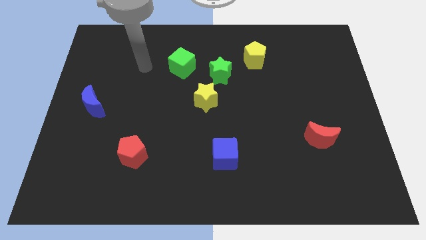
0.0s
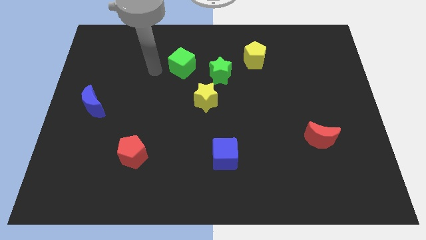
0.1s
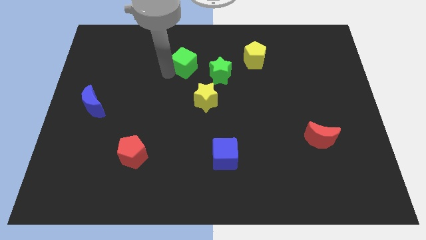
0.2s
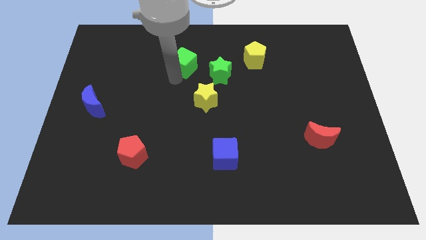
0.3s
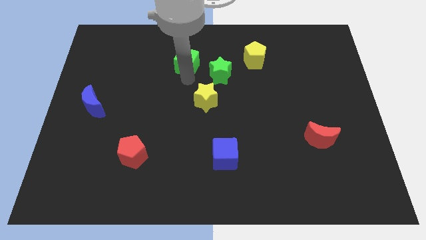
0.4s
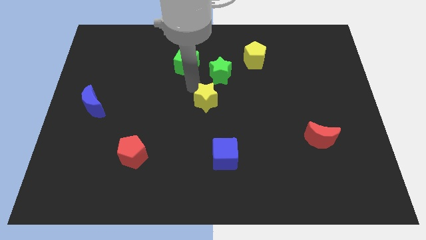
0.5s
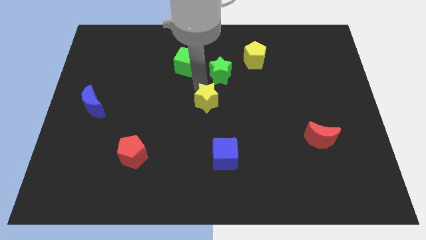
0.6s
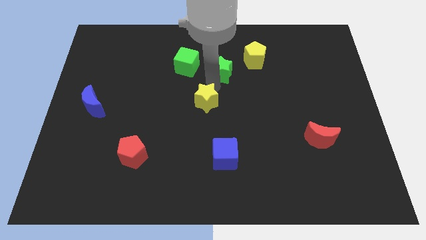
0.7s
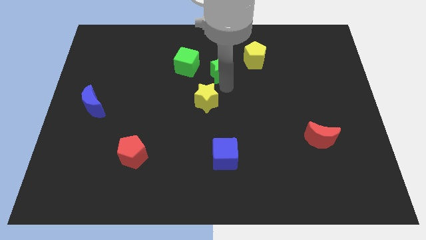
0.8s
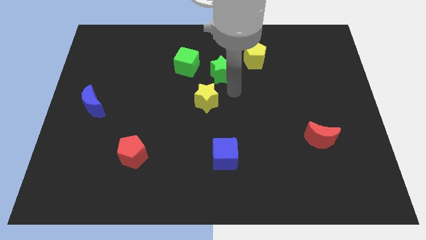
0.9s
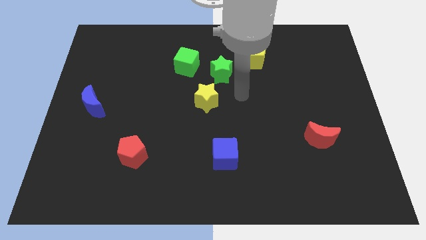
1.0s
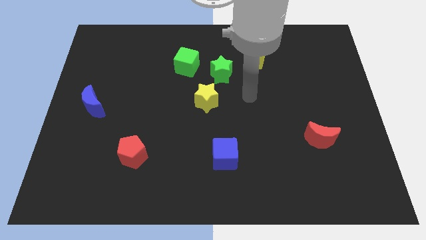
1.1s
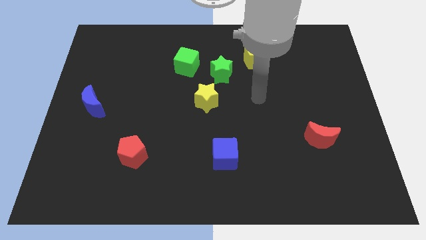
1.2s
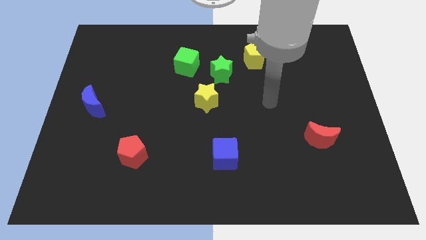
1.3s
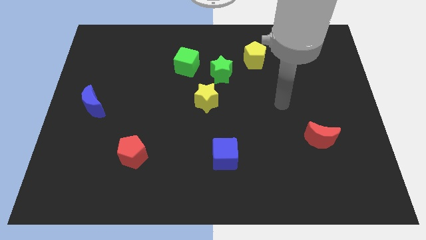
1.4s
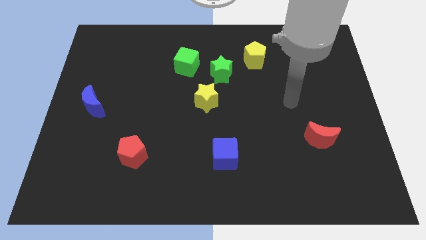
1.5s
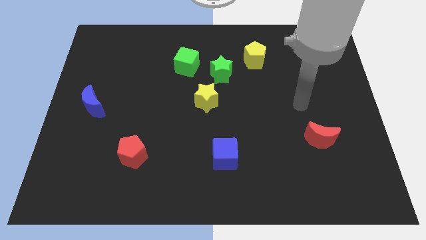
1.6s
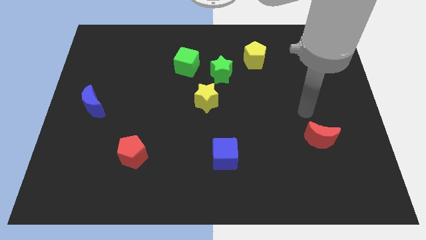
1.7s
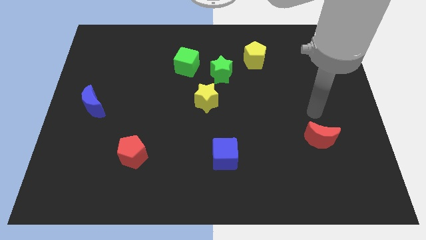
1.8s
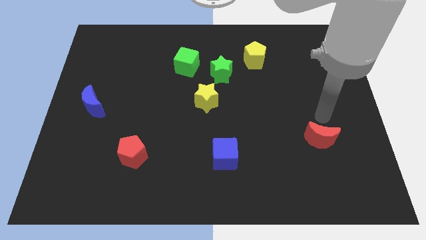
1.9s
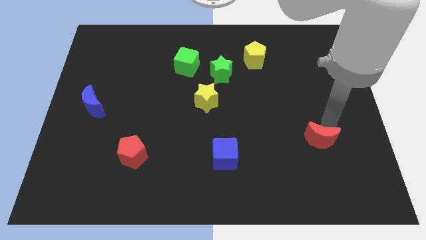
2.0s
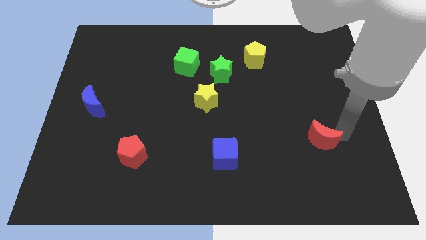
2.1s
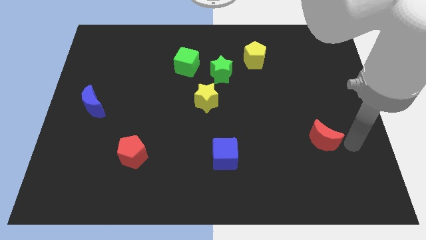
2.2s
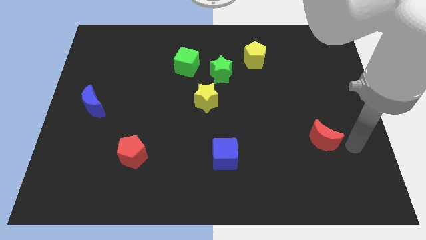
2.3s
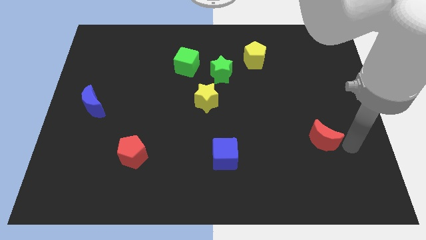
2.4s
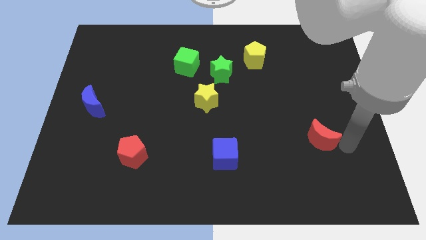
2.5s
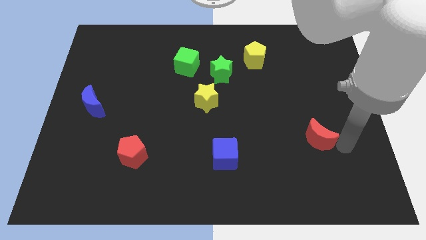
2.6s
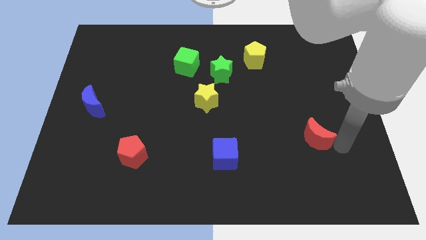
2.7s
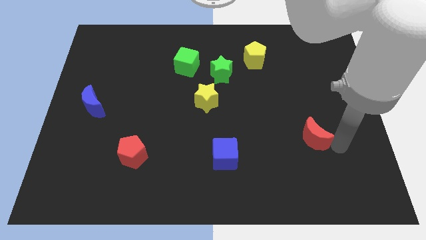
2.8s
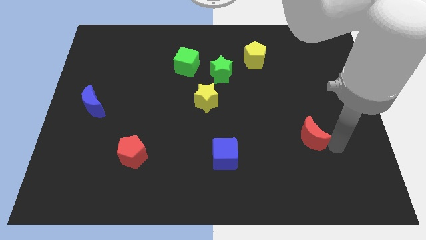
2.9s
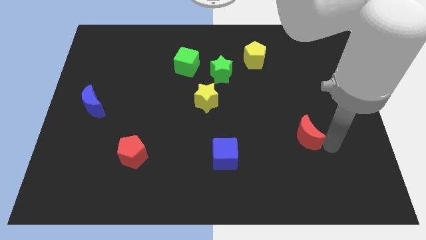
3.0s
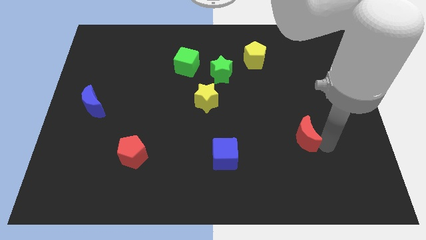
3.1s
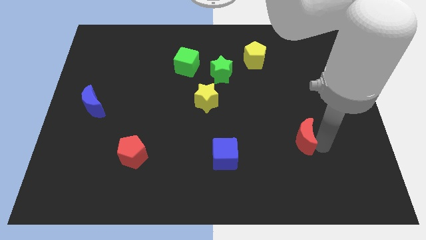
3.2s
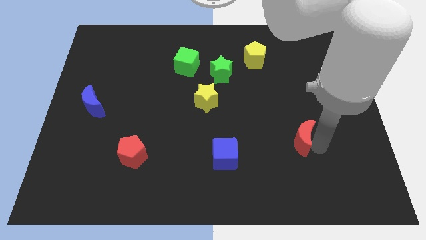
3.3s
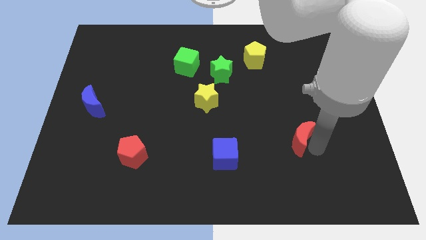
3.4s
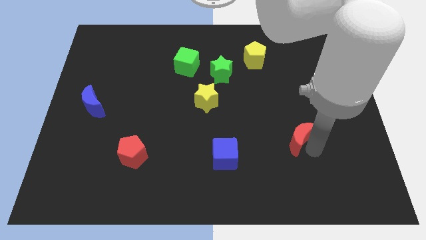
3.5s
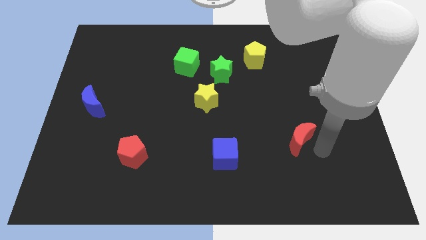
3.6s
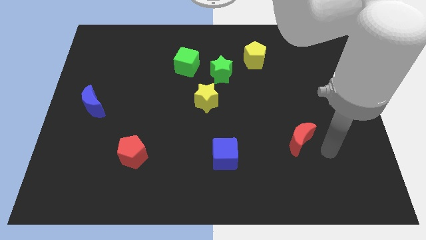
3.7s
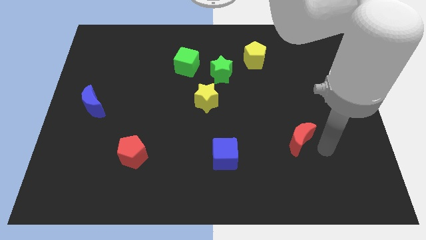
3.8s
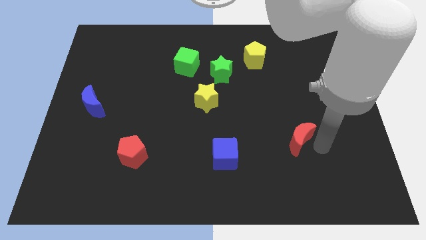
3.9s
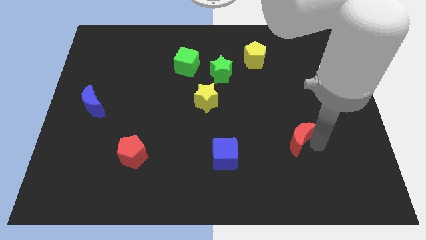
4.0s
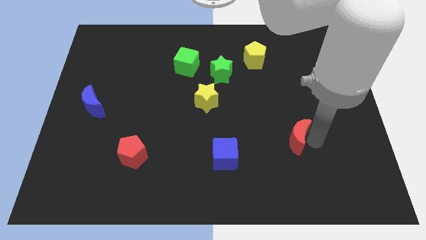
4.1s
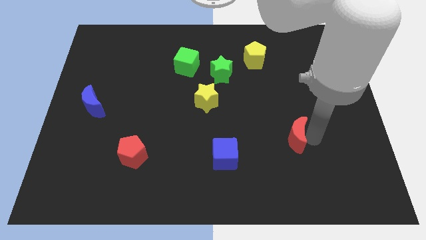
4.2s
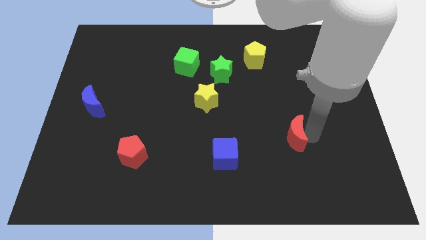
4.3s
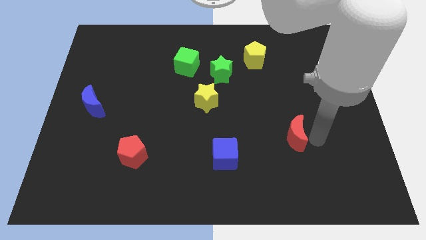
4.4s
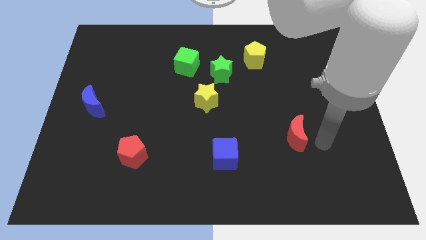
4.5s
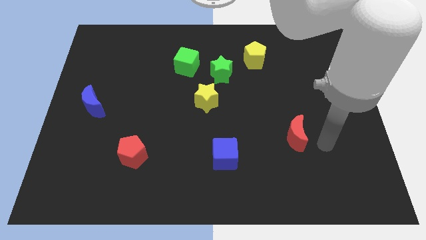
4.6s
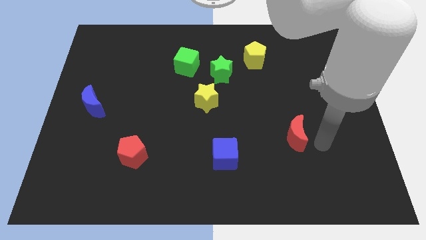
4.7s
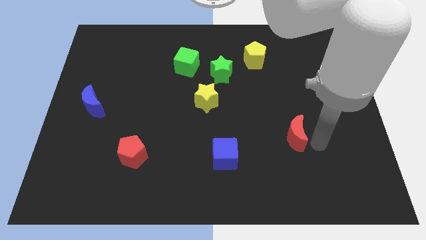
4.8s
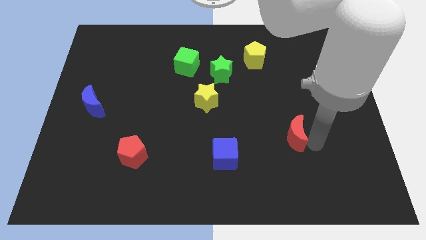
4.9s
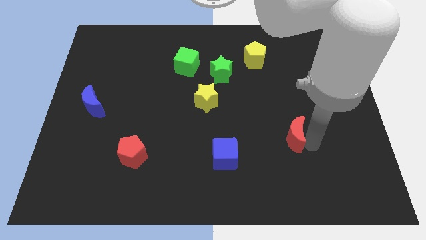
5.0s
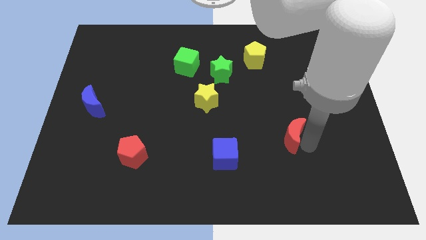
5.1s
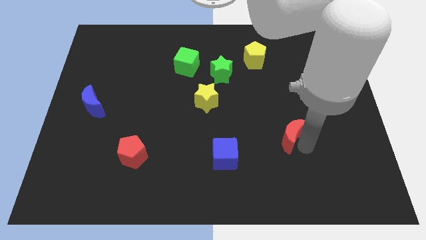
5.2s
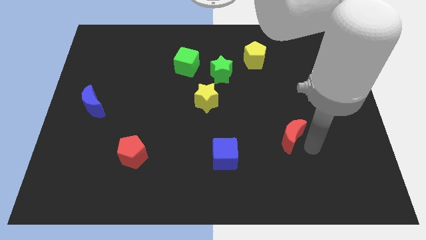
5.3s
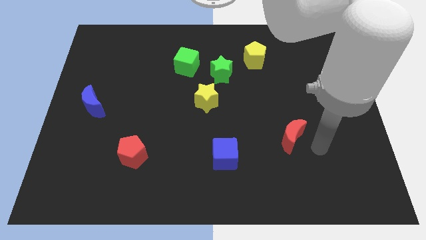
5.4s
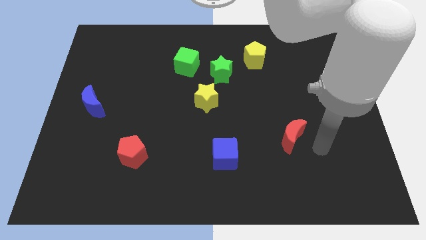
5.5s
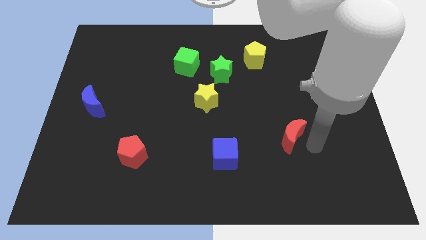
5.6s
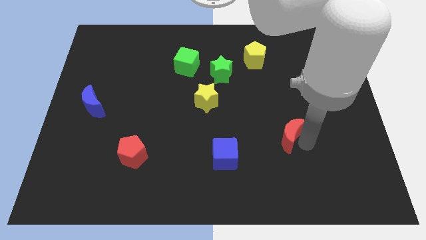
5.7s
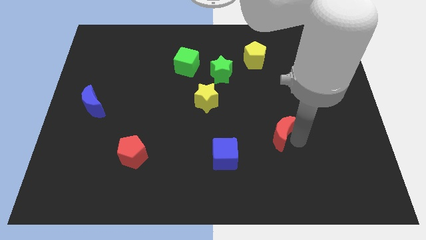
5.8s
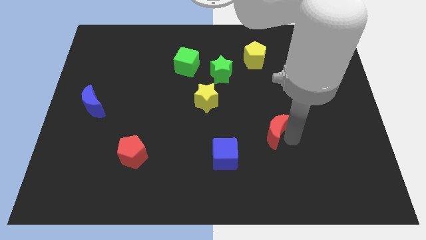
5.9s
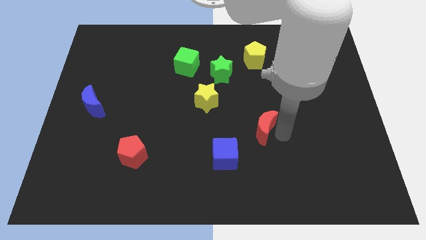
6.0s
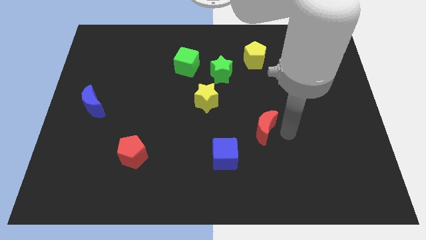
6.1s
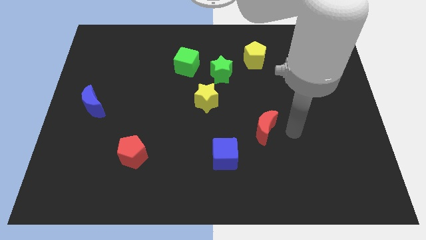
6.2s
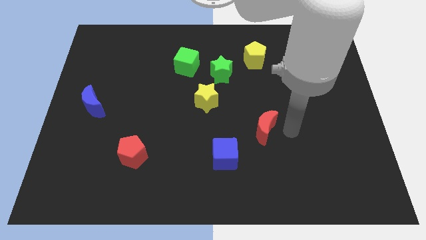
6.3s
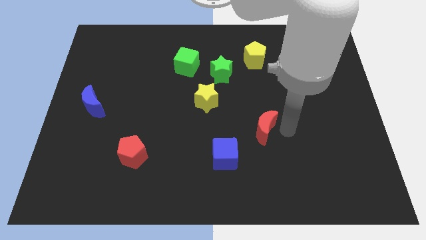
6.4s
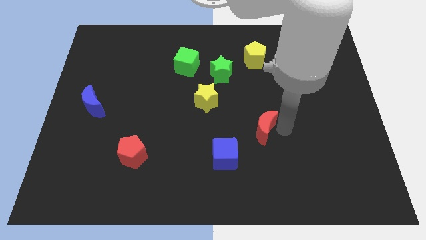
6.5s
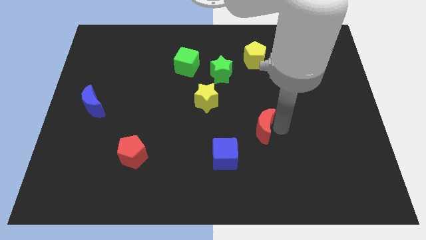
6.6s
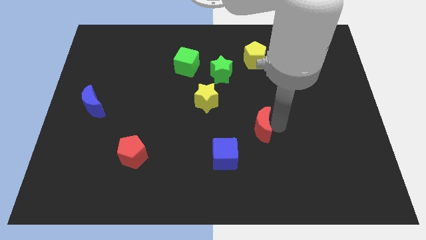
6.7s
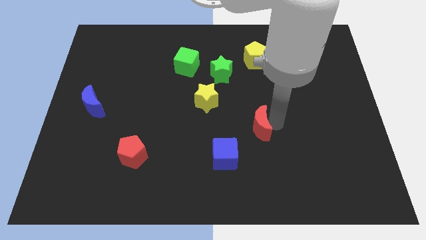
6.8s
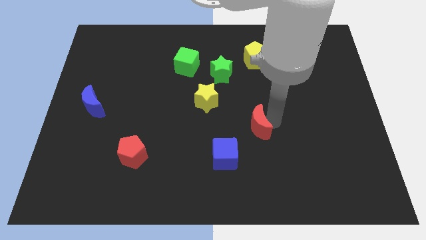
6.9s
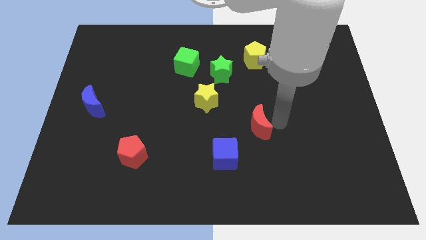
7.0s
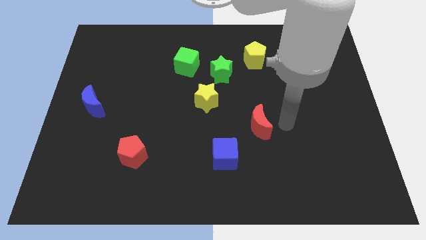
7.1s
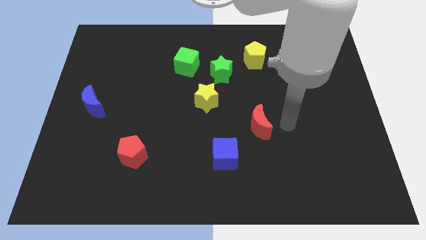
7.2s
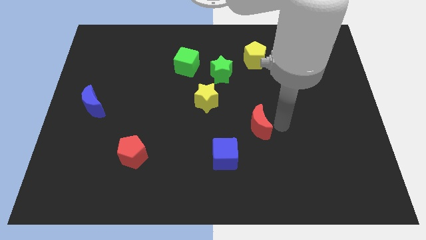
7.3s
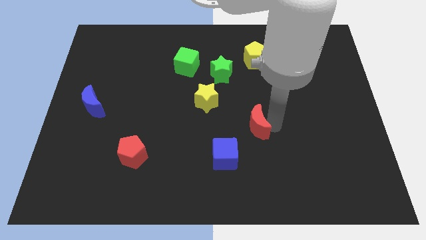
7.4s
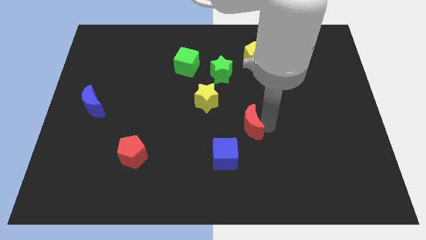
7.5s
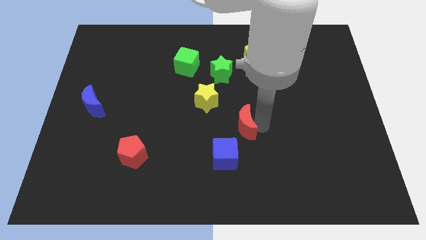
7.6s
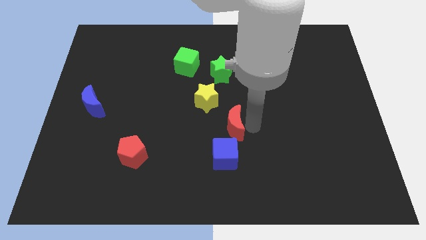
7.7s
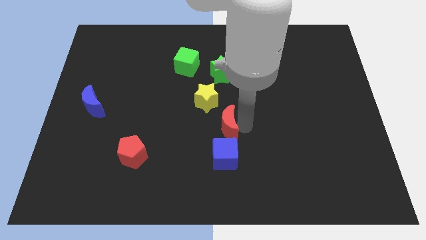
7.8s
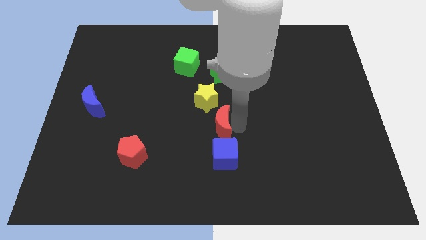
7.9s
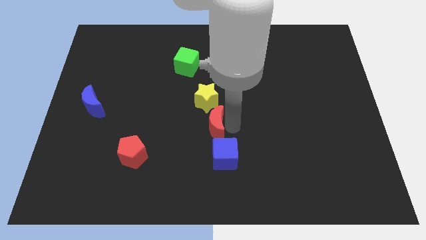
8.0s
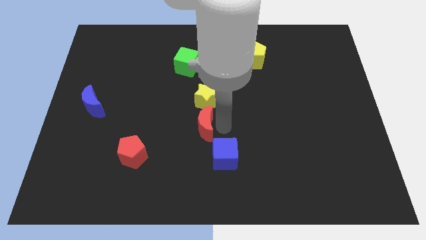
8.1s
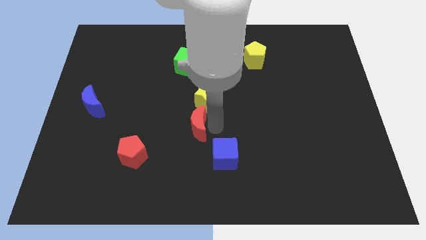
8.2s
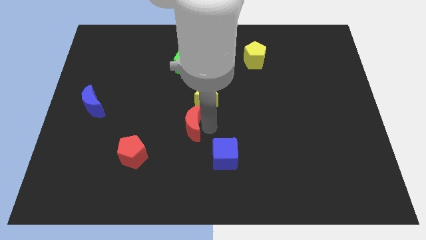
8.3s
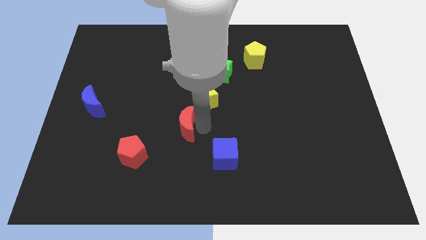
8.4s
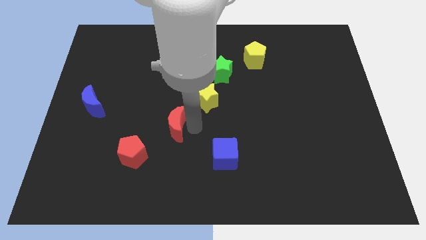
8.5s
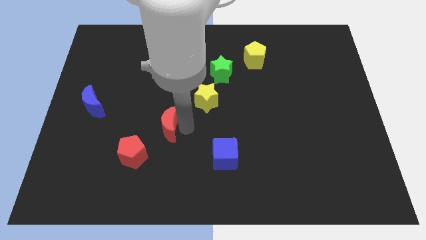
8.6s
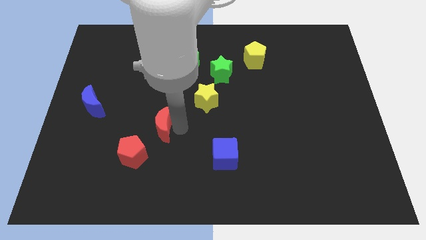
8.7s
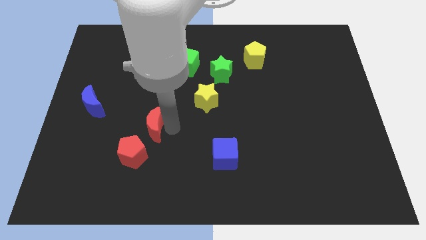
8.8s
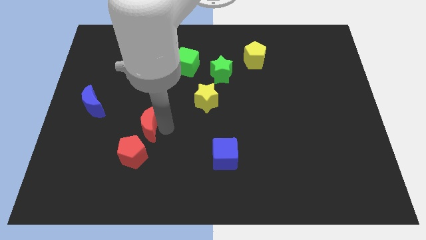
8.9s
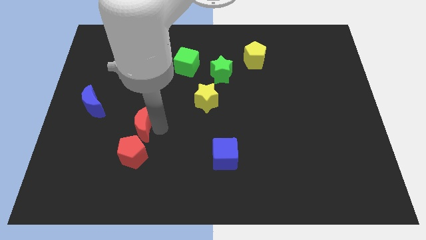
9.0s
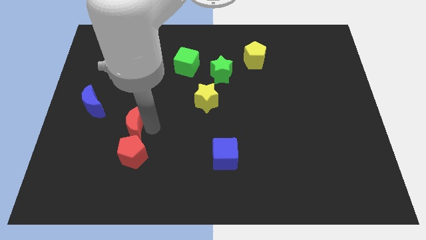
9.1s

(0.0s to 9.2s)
move the red moon diagonally down and to the right of the blue moon
